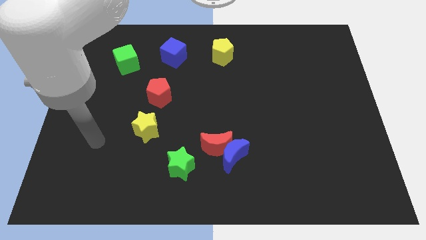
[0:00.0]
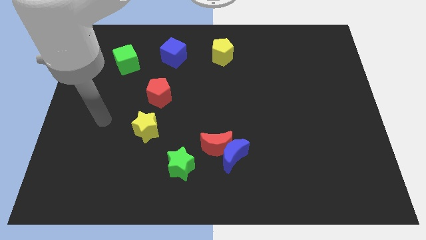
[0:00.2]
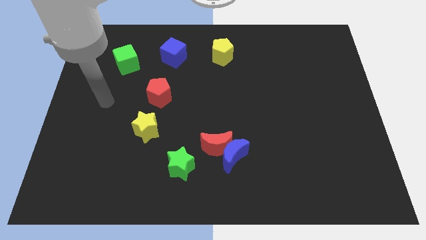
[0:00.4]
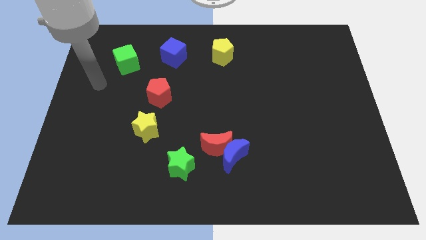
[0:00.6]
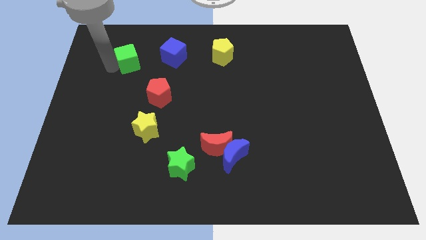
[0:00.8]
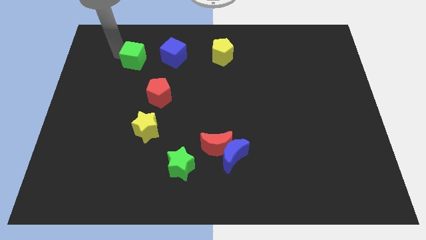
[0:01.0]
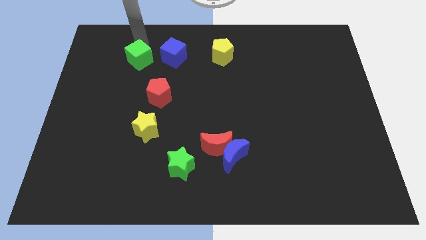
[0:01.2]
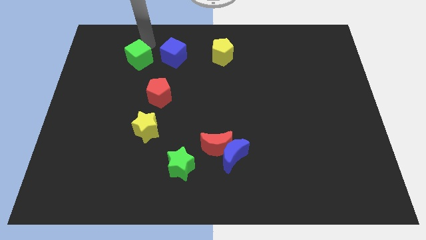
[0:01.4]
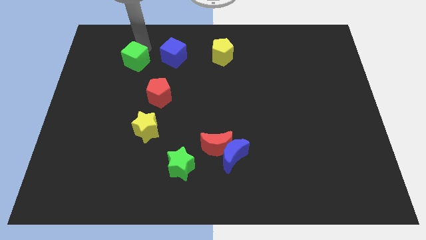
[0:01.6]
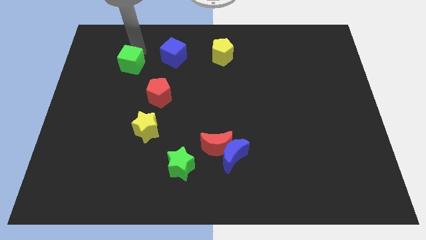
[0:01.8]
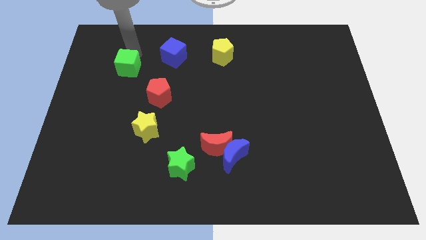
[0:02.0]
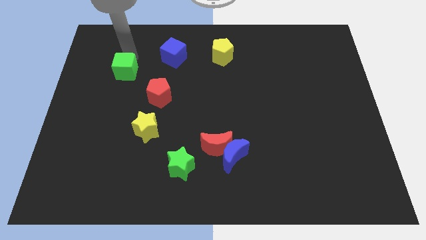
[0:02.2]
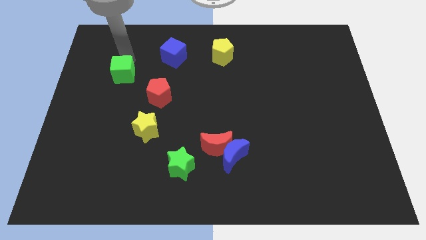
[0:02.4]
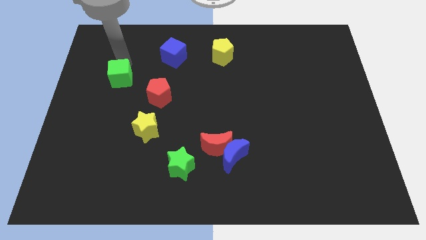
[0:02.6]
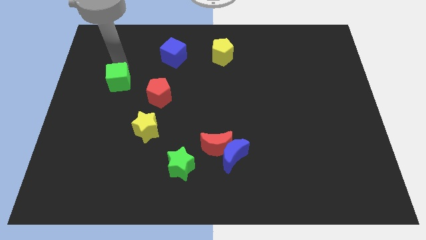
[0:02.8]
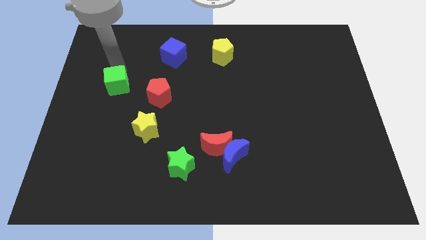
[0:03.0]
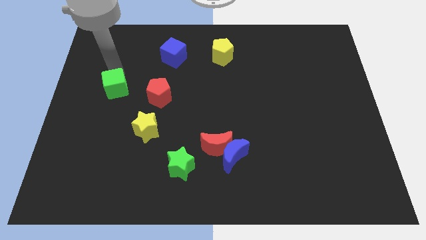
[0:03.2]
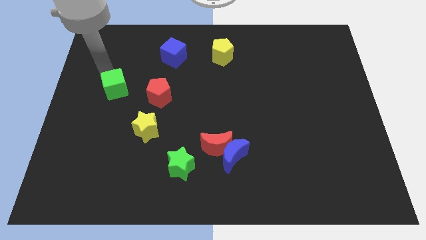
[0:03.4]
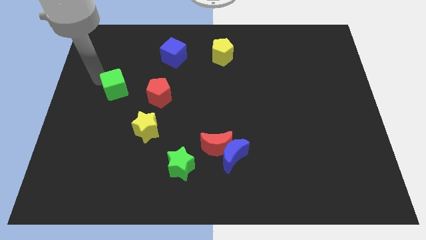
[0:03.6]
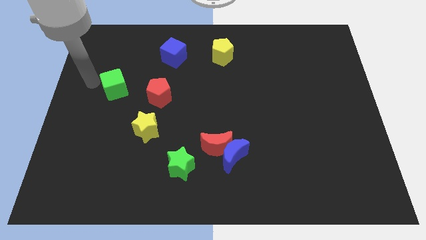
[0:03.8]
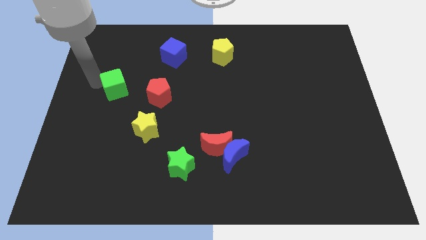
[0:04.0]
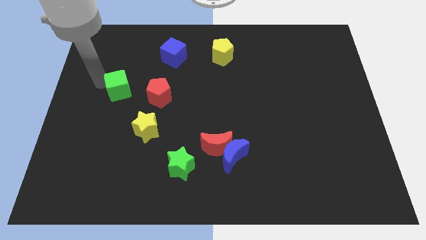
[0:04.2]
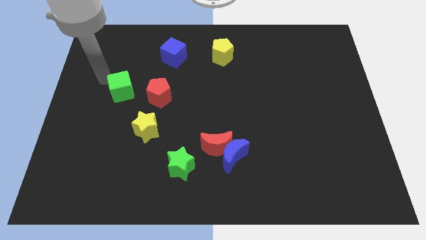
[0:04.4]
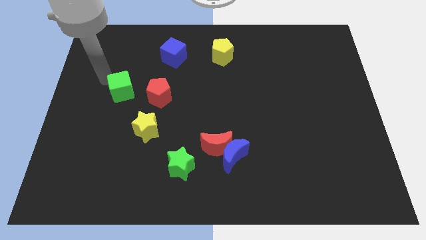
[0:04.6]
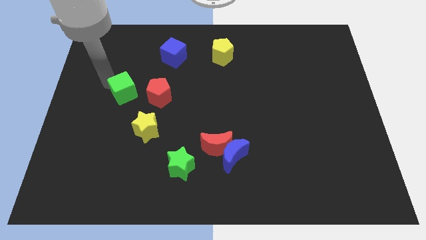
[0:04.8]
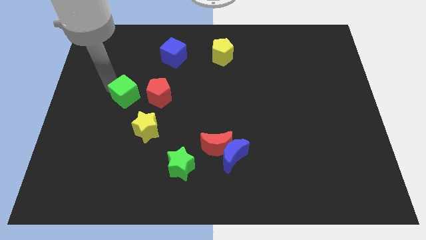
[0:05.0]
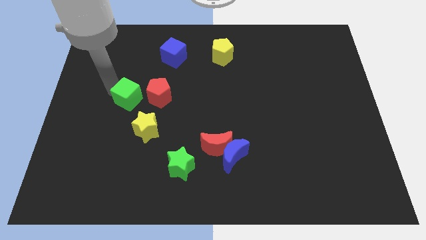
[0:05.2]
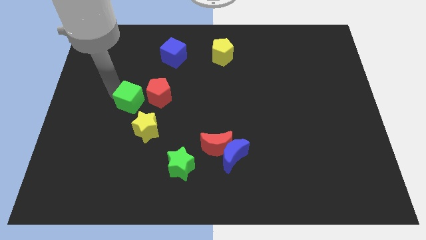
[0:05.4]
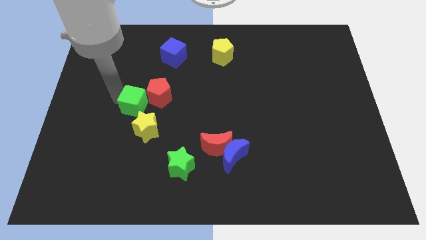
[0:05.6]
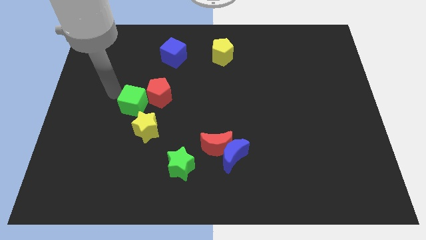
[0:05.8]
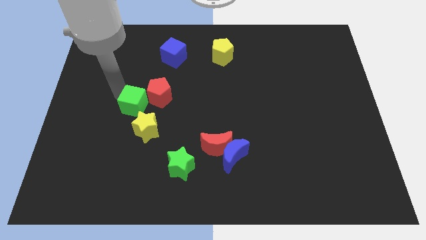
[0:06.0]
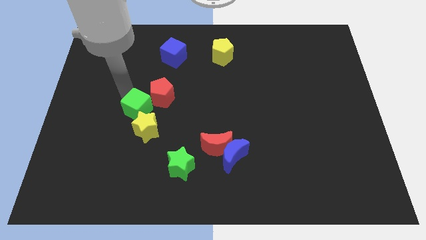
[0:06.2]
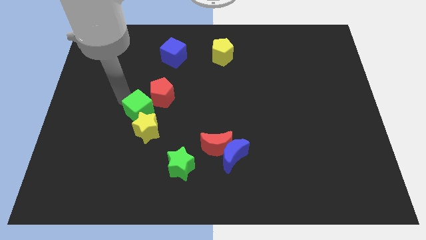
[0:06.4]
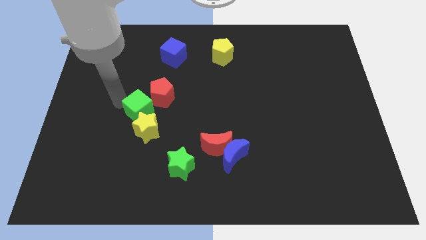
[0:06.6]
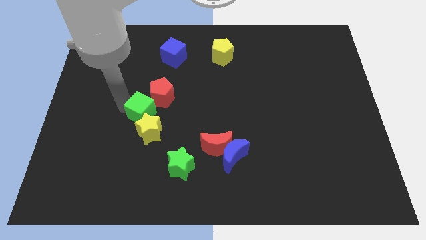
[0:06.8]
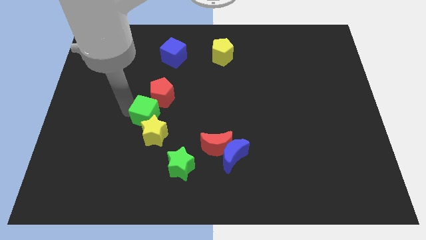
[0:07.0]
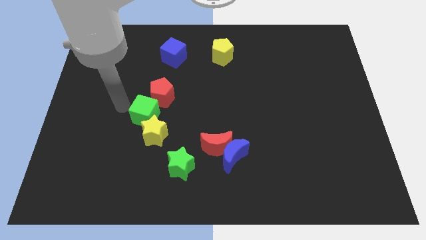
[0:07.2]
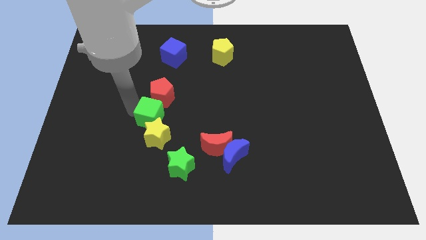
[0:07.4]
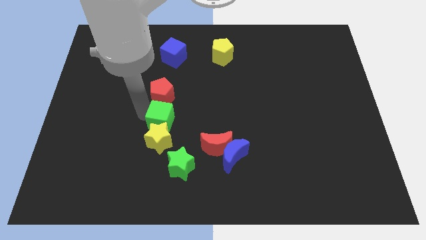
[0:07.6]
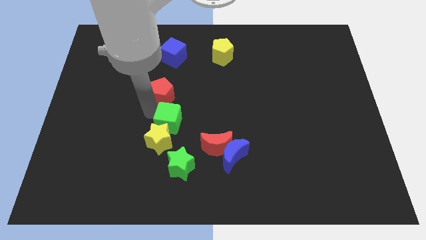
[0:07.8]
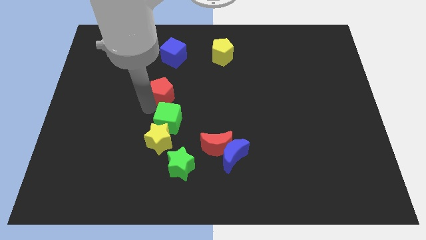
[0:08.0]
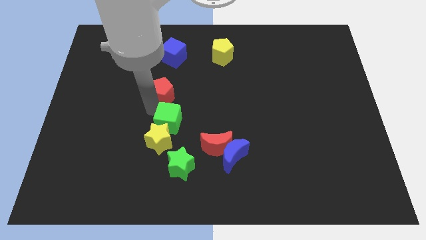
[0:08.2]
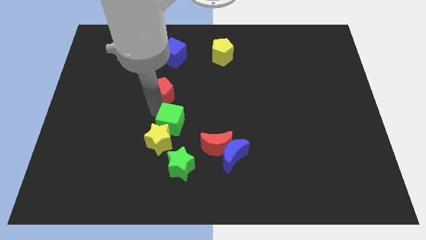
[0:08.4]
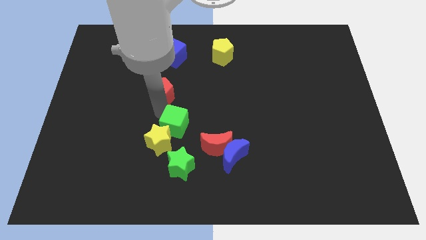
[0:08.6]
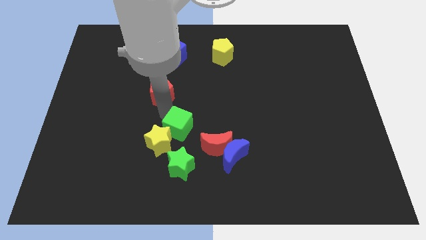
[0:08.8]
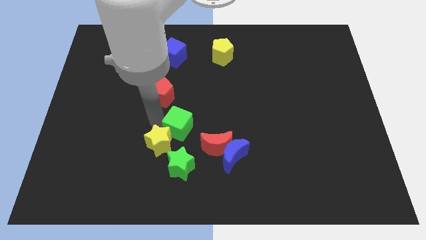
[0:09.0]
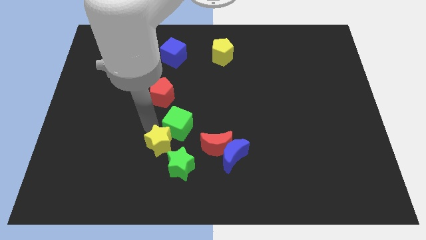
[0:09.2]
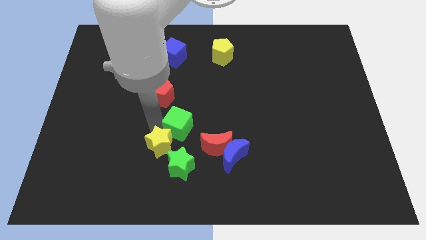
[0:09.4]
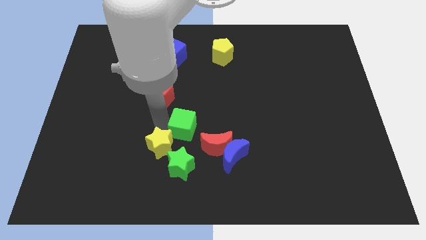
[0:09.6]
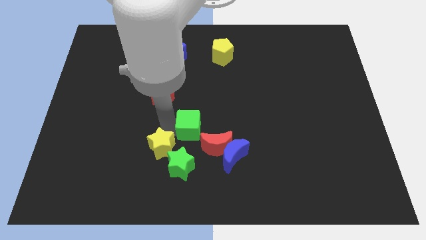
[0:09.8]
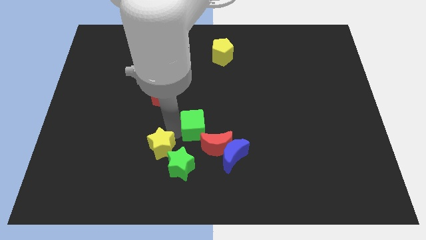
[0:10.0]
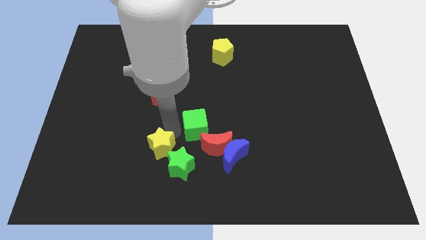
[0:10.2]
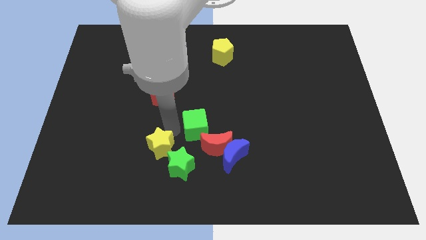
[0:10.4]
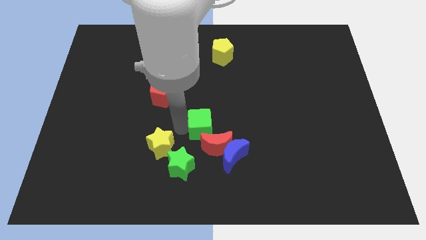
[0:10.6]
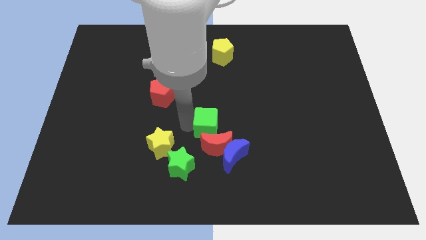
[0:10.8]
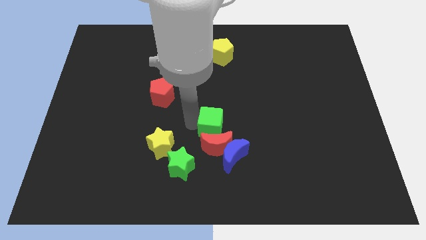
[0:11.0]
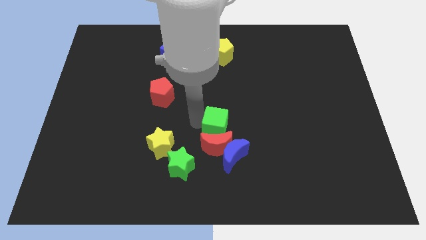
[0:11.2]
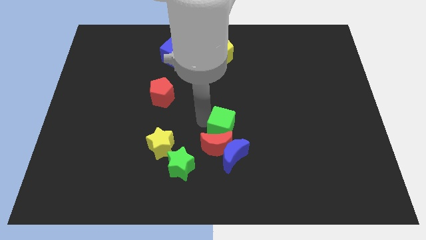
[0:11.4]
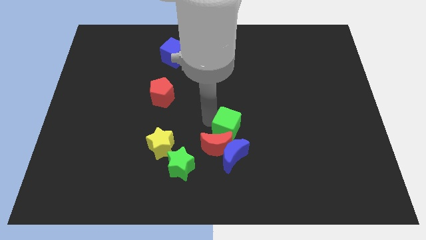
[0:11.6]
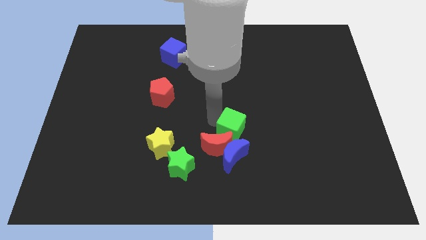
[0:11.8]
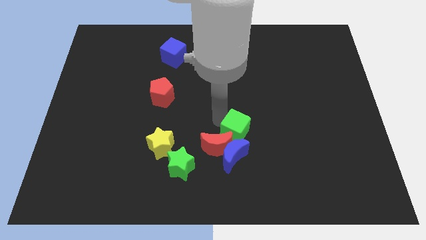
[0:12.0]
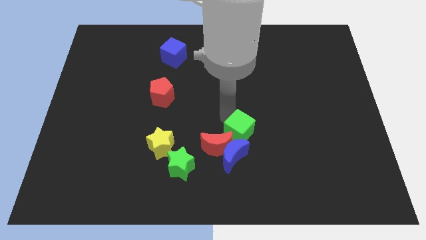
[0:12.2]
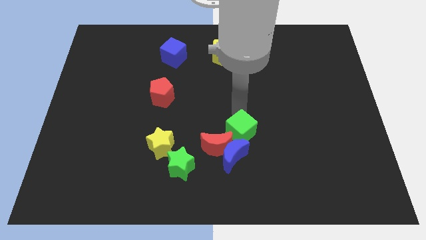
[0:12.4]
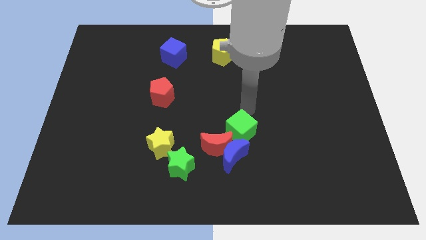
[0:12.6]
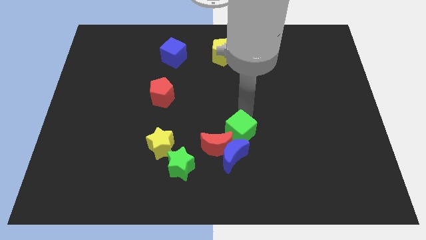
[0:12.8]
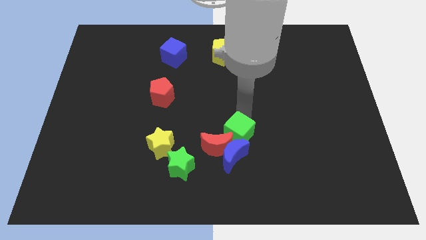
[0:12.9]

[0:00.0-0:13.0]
push the green cube towards the blue moon
